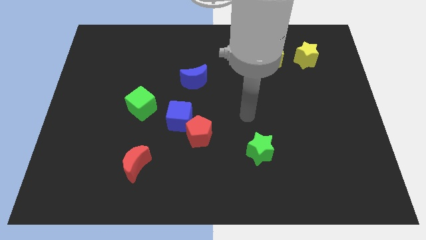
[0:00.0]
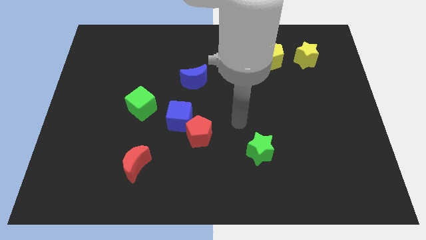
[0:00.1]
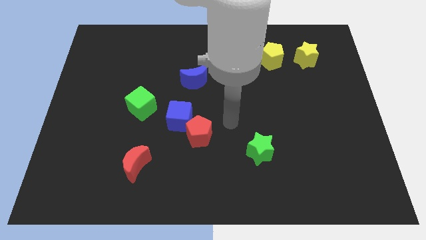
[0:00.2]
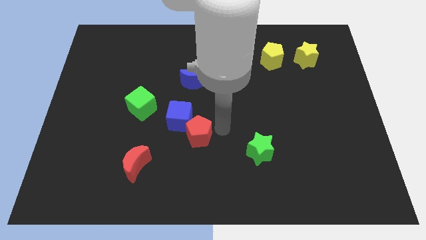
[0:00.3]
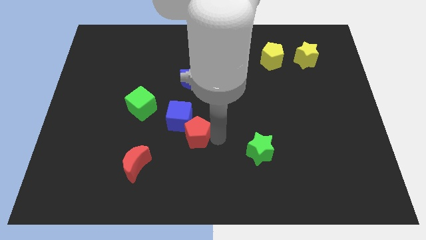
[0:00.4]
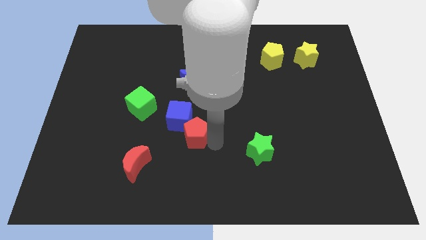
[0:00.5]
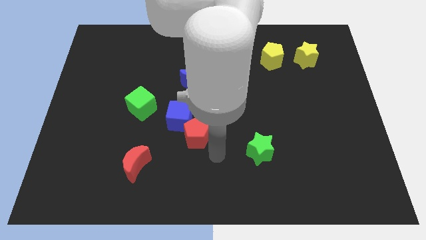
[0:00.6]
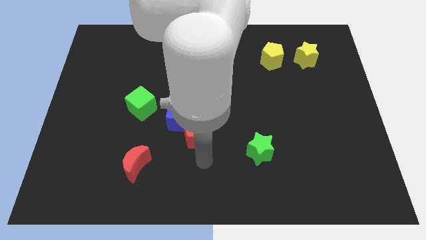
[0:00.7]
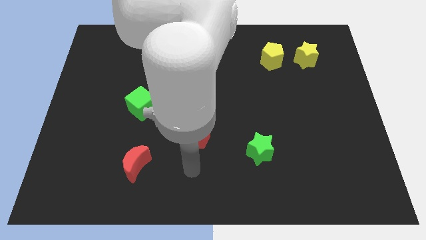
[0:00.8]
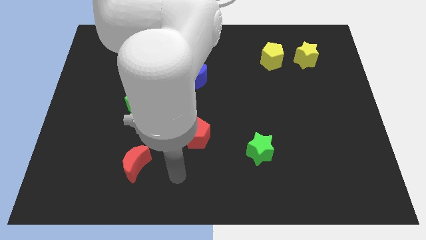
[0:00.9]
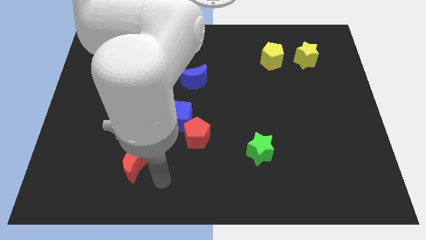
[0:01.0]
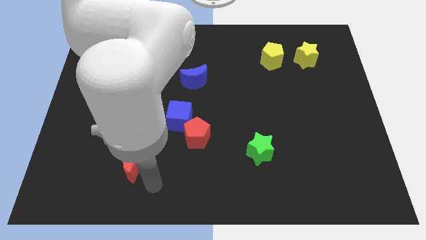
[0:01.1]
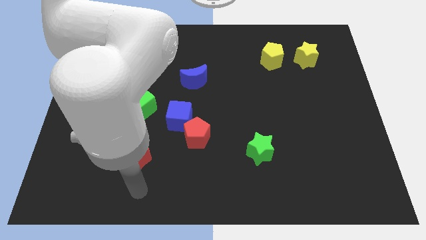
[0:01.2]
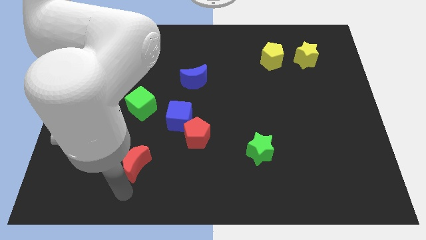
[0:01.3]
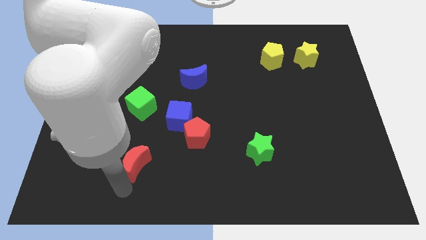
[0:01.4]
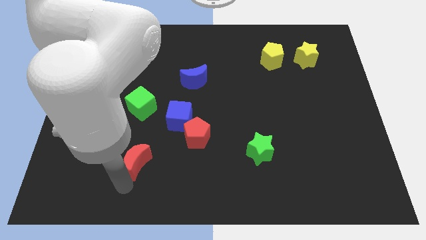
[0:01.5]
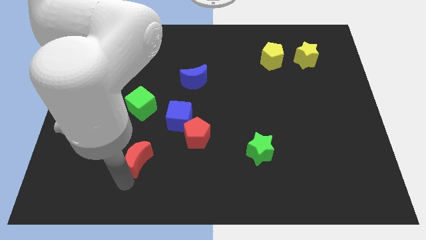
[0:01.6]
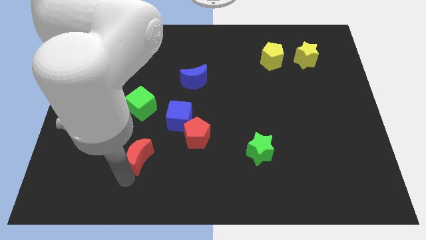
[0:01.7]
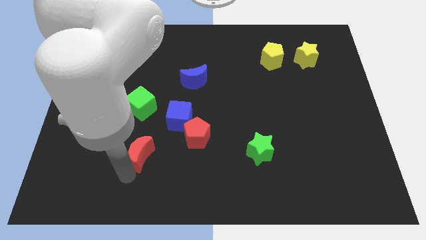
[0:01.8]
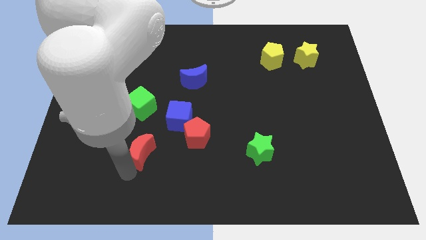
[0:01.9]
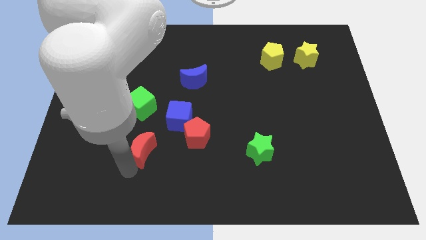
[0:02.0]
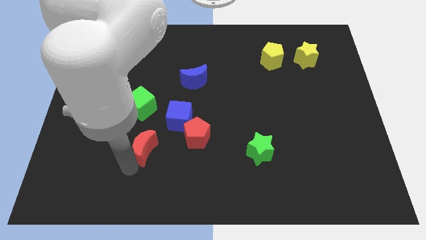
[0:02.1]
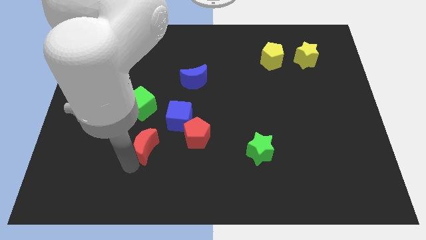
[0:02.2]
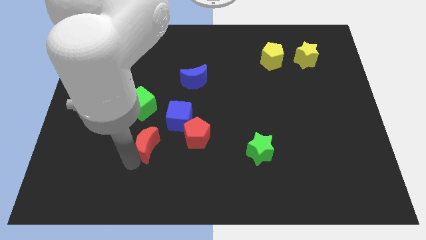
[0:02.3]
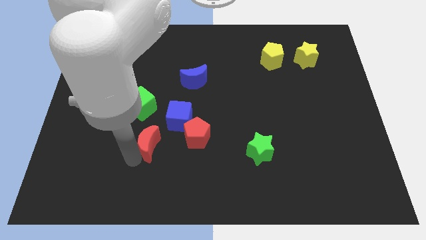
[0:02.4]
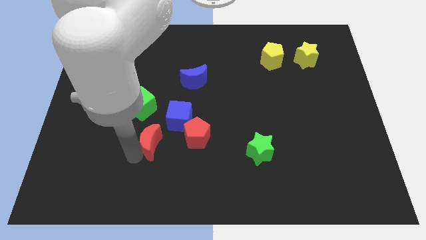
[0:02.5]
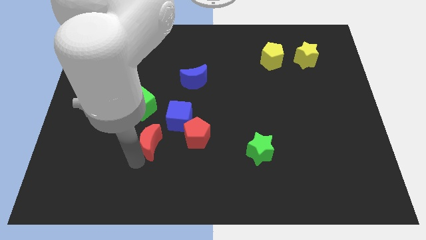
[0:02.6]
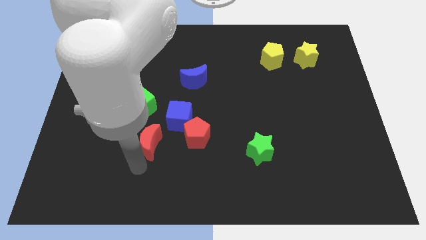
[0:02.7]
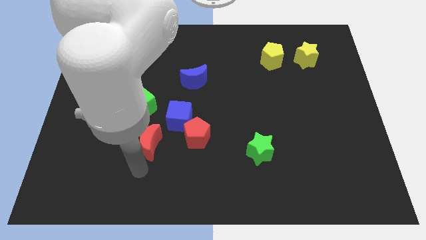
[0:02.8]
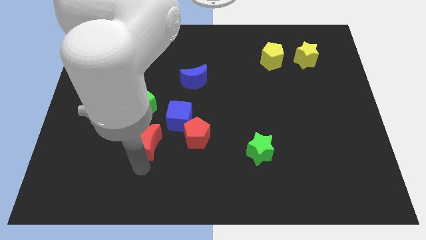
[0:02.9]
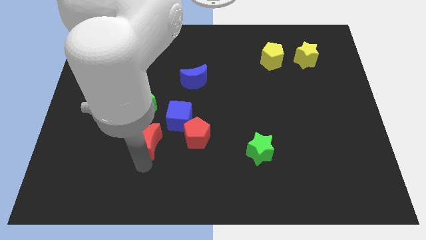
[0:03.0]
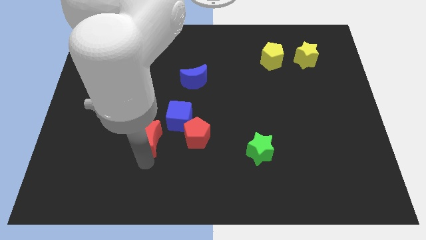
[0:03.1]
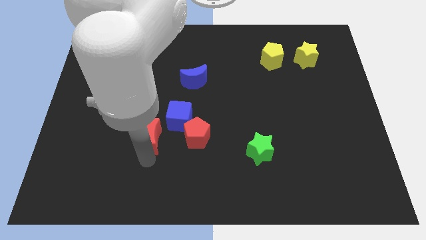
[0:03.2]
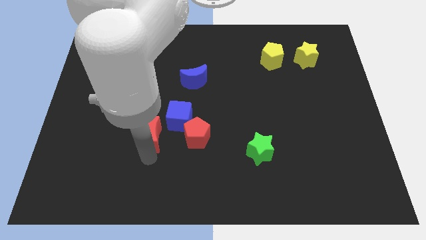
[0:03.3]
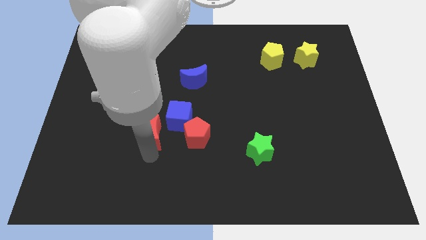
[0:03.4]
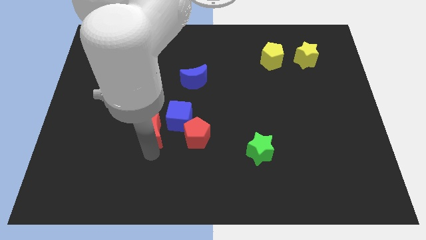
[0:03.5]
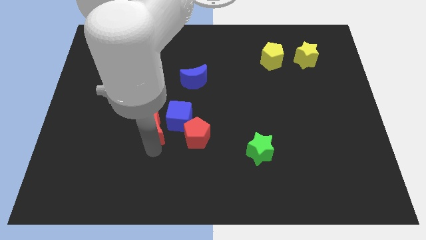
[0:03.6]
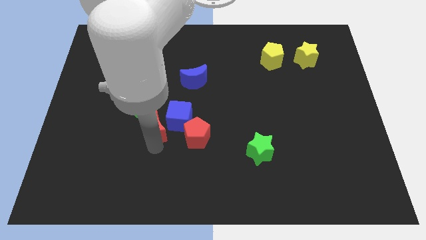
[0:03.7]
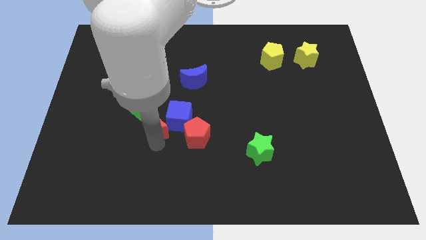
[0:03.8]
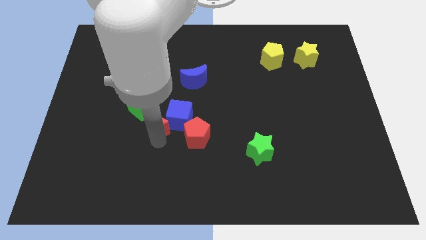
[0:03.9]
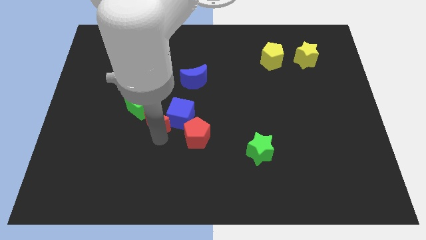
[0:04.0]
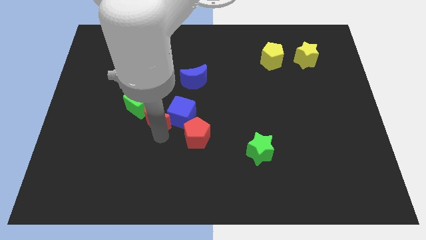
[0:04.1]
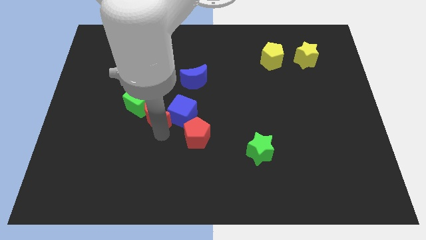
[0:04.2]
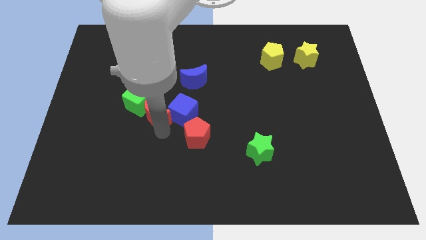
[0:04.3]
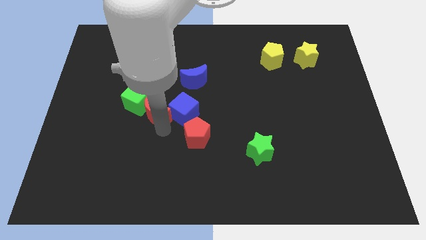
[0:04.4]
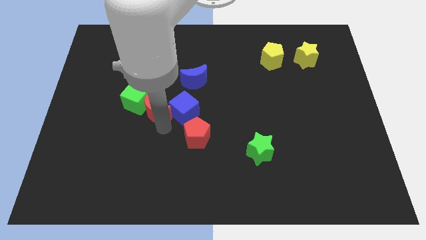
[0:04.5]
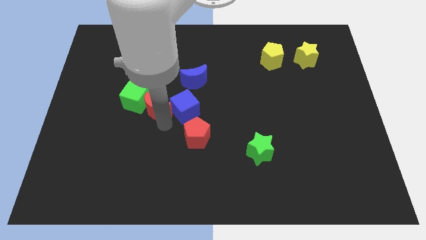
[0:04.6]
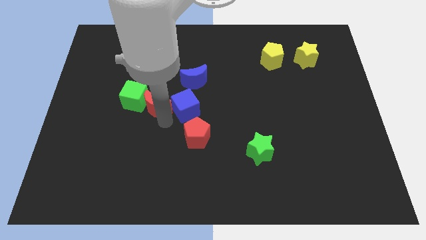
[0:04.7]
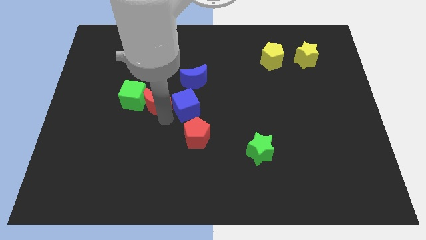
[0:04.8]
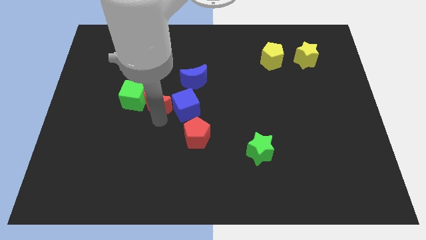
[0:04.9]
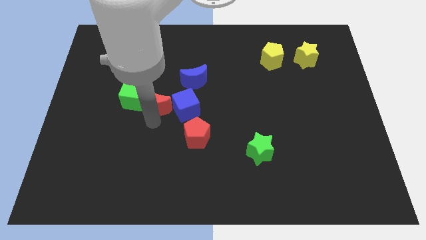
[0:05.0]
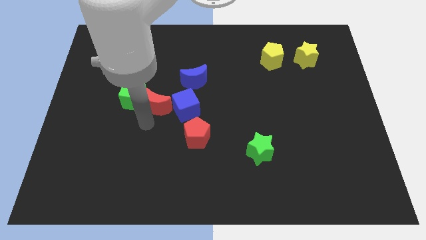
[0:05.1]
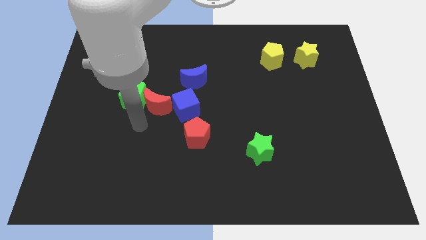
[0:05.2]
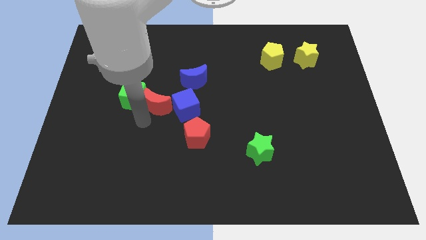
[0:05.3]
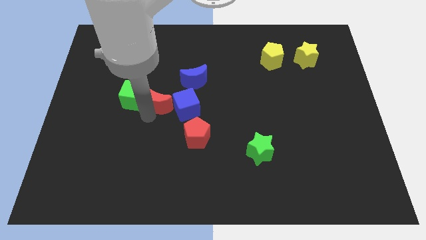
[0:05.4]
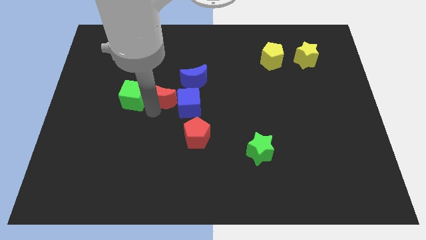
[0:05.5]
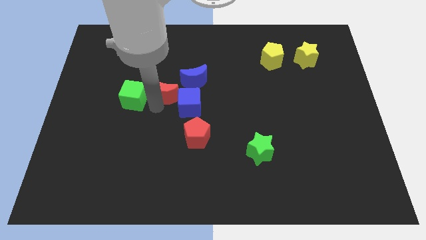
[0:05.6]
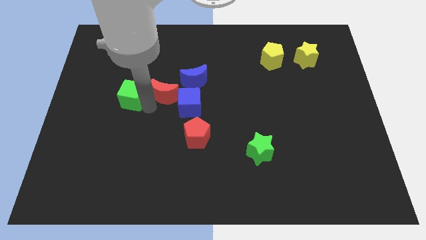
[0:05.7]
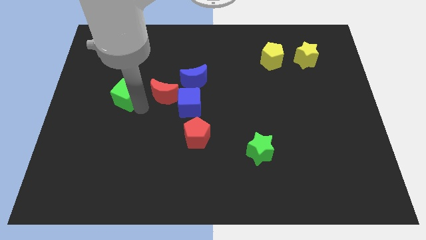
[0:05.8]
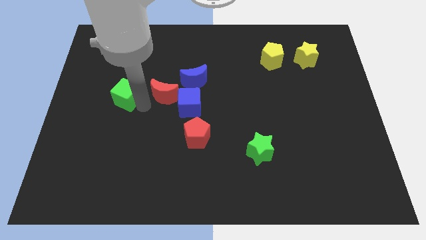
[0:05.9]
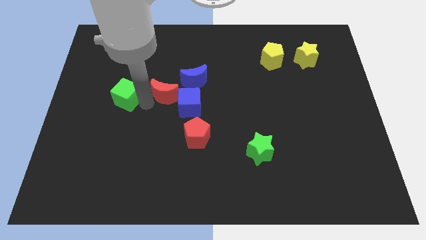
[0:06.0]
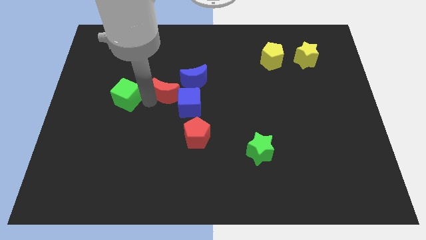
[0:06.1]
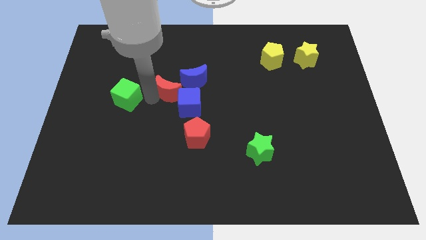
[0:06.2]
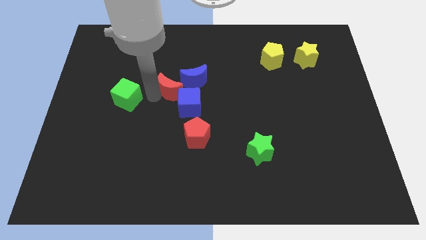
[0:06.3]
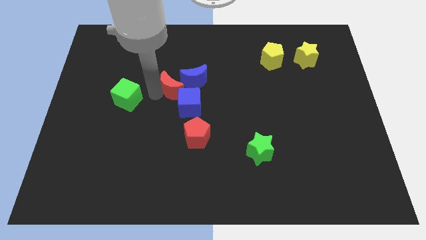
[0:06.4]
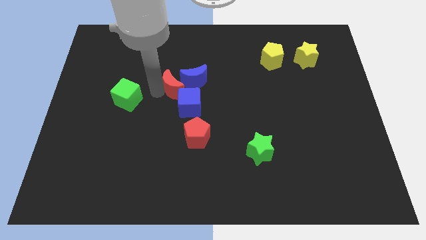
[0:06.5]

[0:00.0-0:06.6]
put the red moon close to the blue moon
